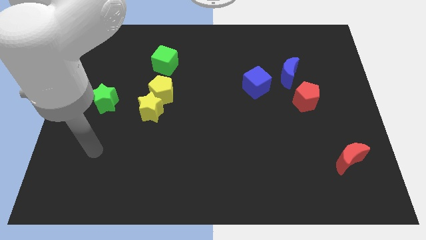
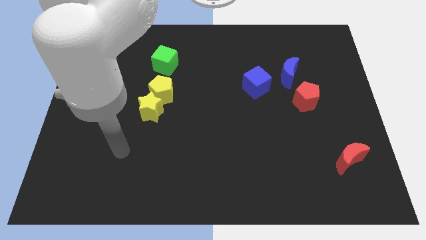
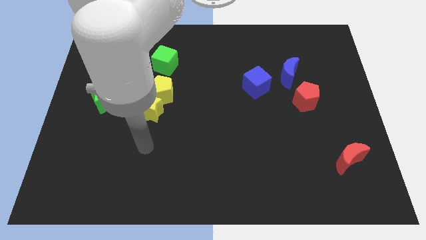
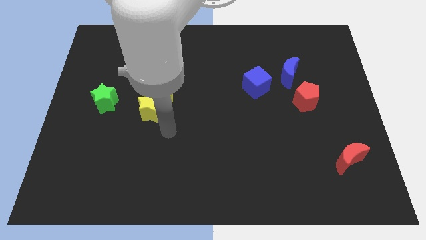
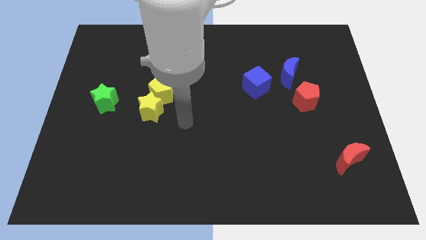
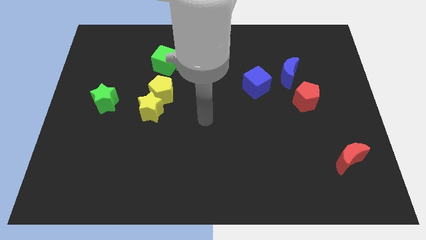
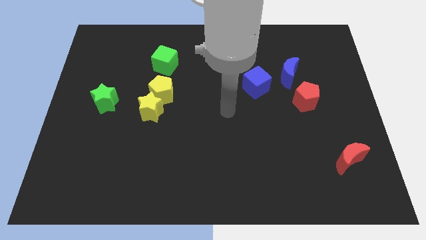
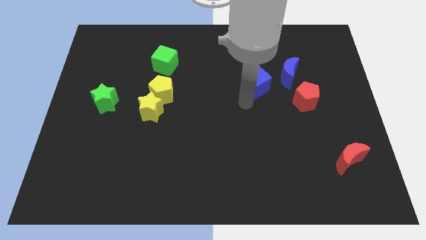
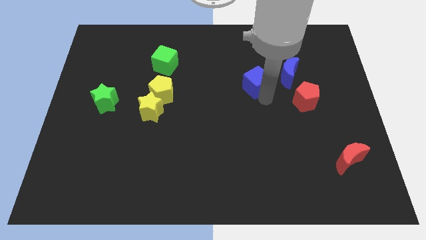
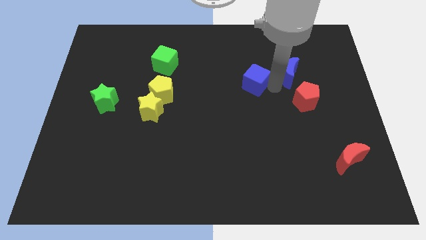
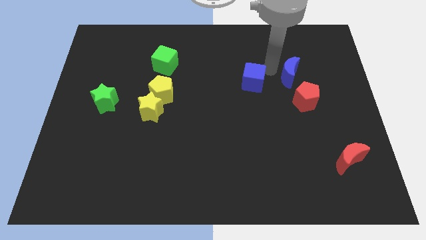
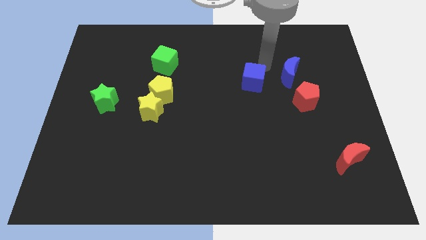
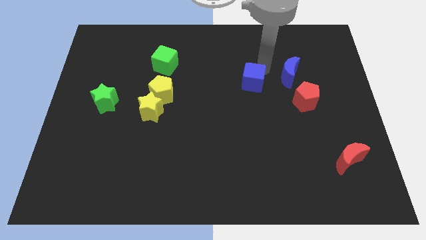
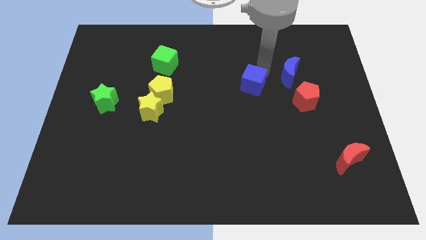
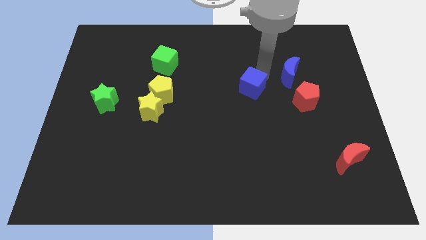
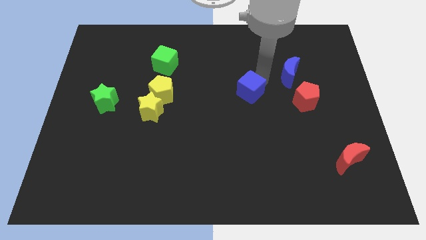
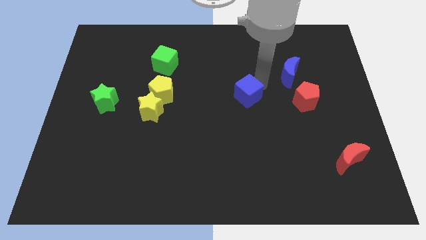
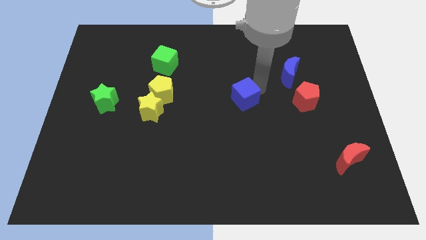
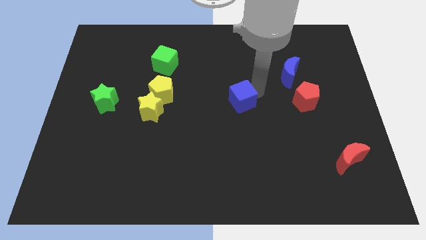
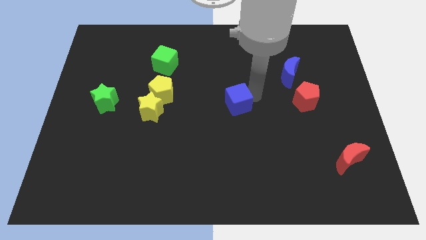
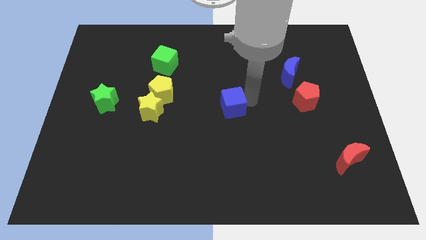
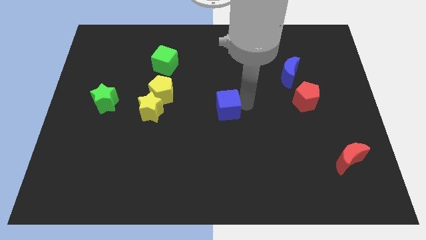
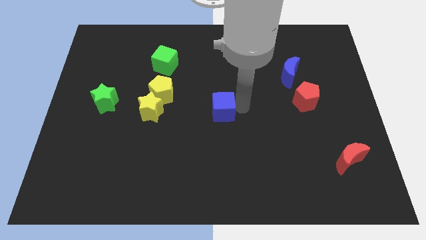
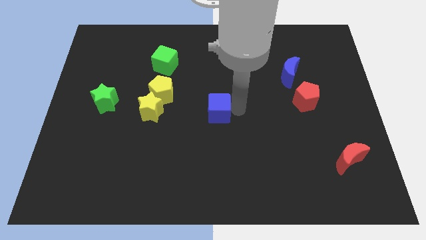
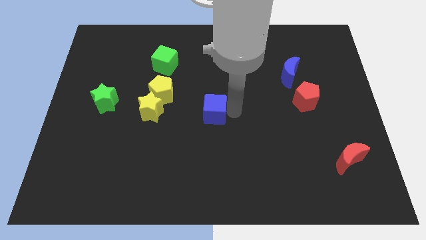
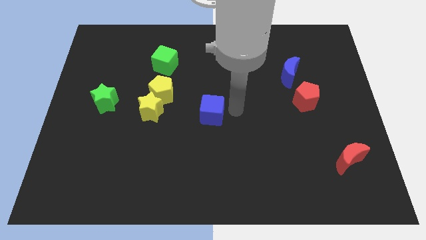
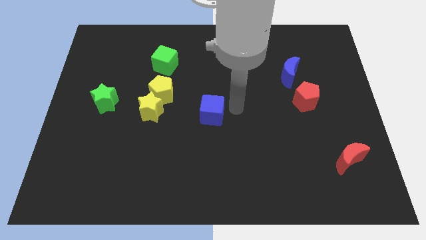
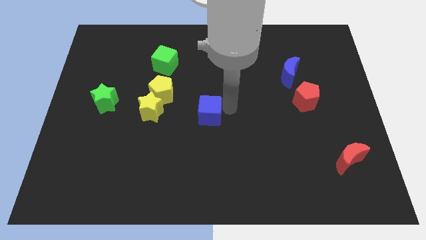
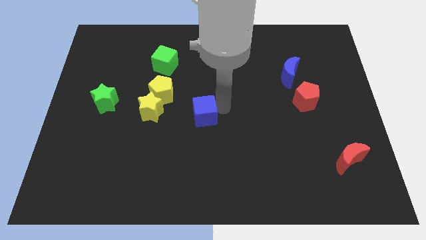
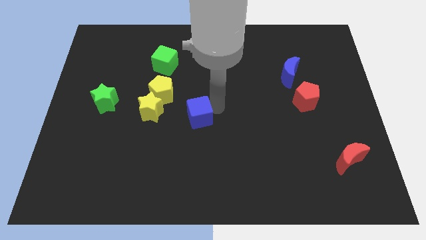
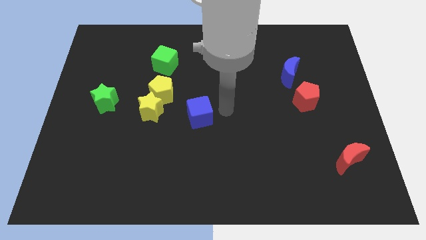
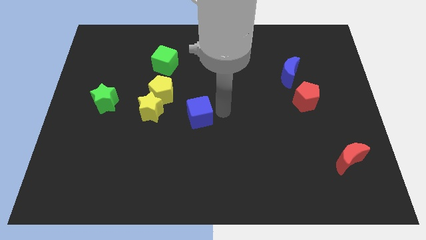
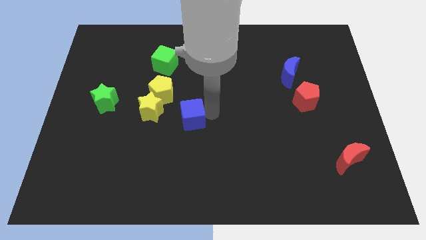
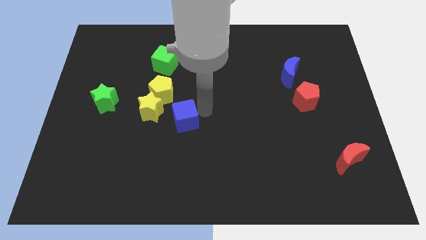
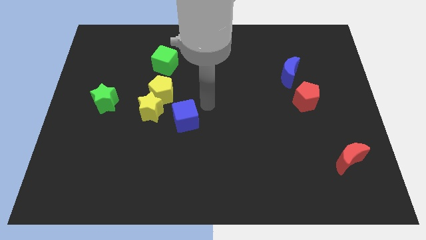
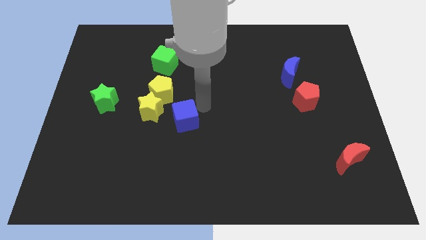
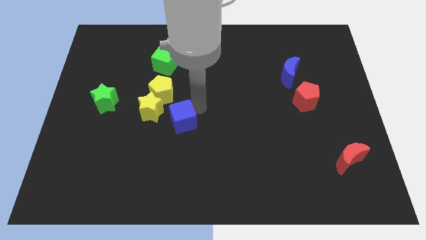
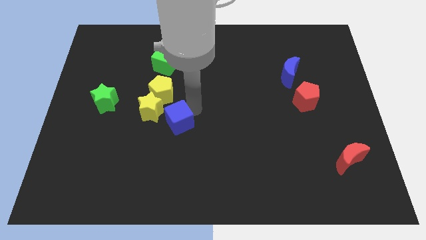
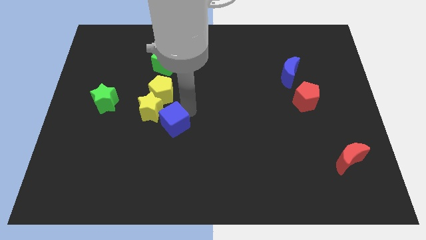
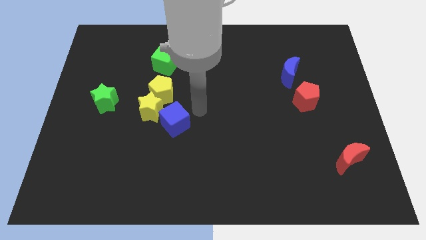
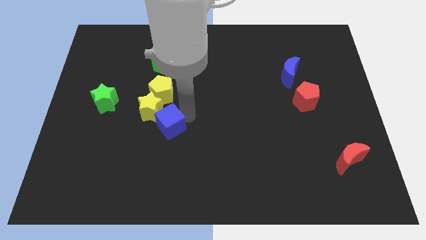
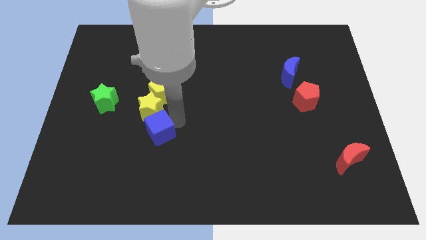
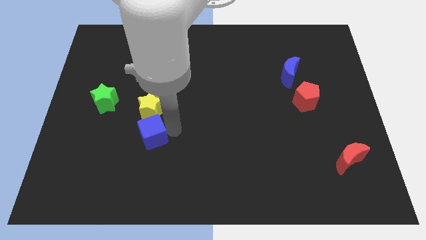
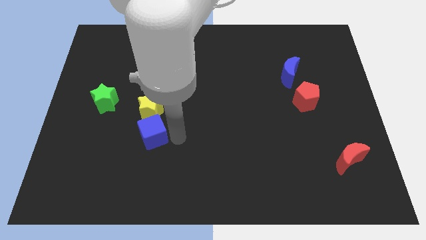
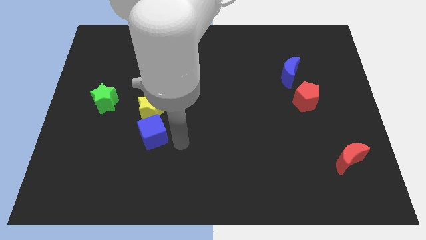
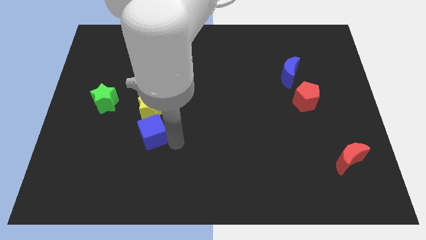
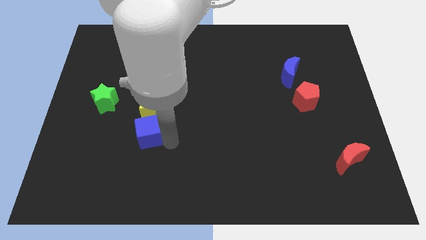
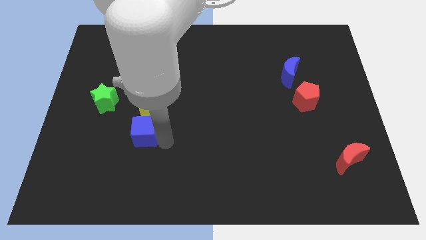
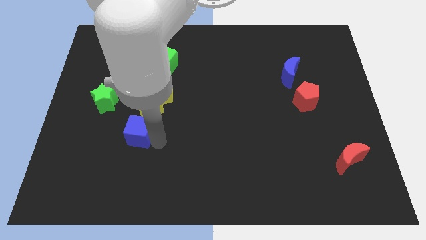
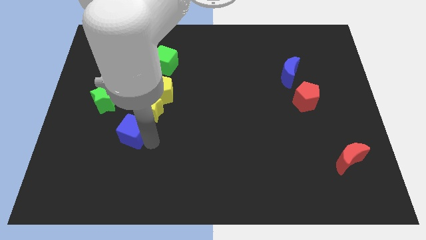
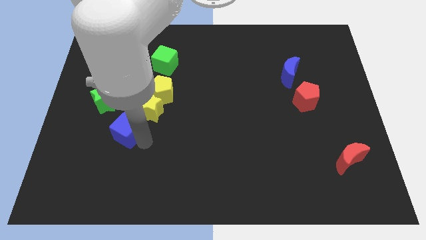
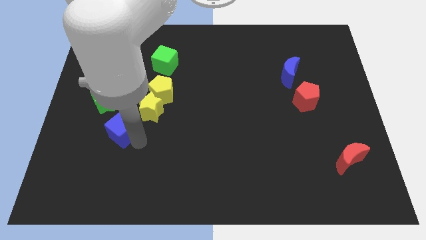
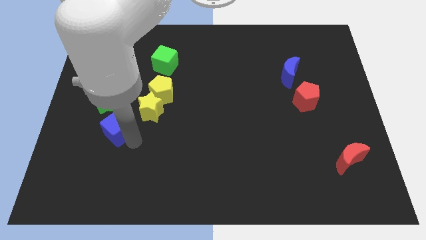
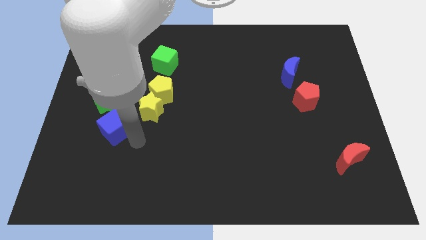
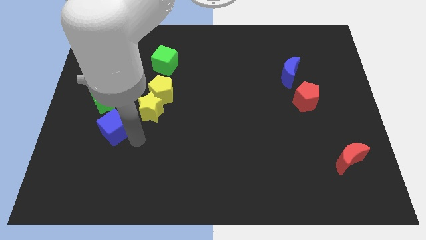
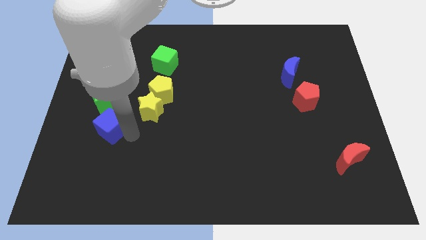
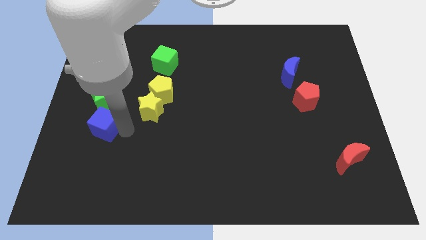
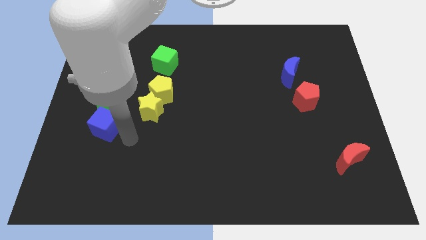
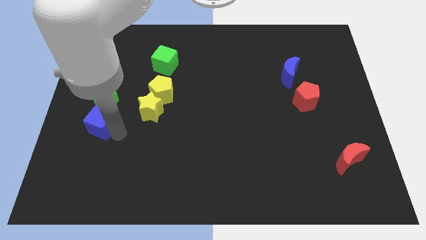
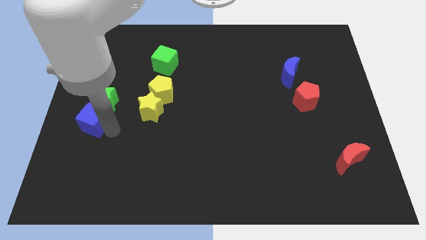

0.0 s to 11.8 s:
slide the blue cube to the center left
